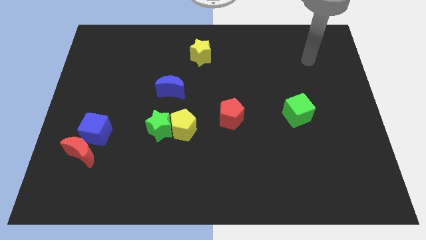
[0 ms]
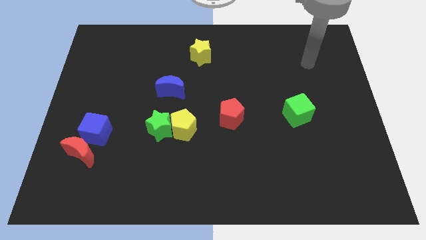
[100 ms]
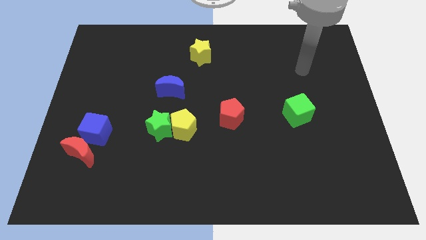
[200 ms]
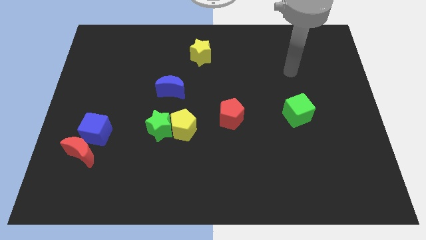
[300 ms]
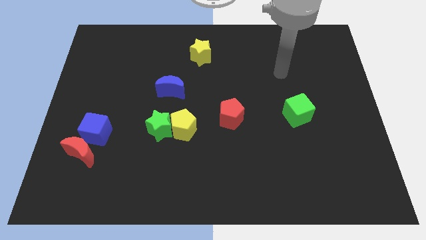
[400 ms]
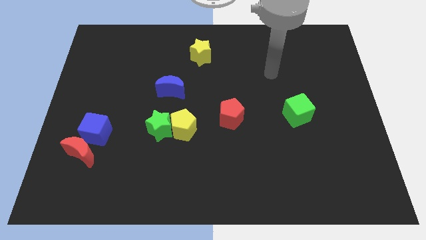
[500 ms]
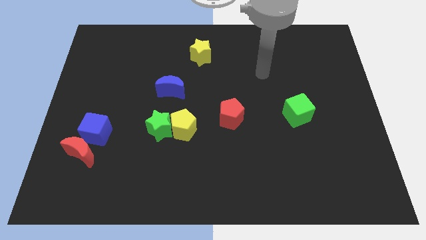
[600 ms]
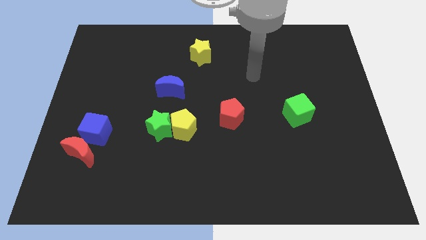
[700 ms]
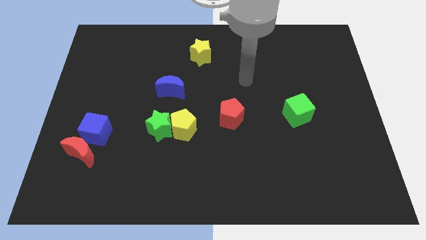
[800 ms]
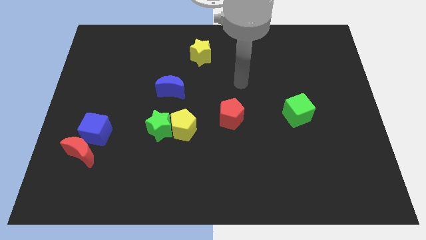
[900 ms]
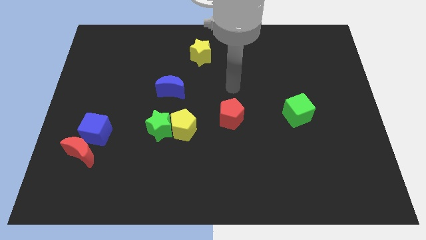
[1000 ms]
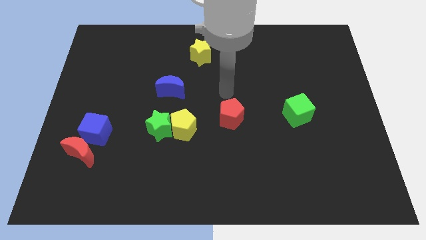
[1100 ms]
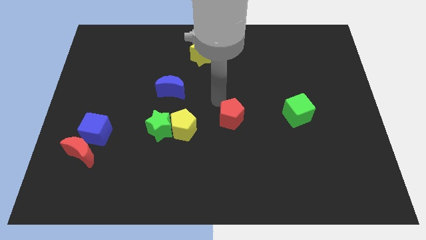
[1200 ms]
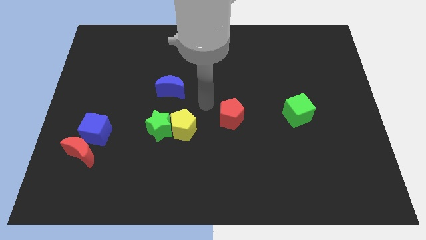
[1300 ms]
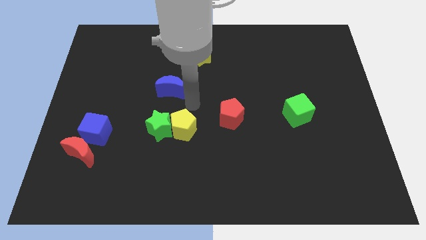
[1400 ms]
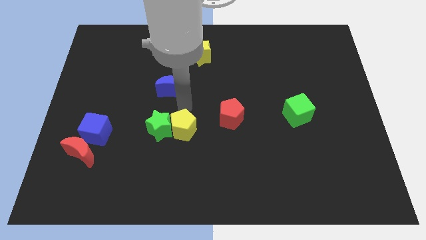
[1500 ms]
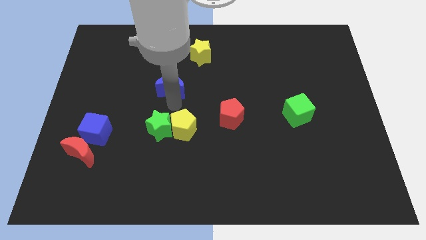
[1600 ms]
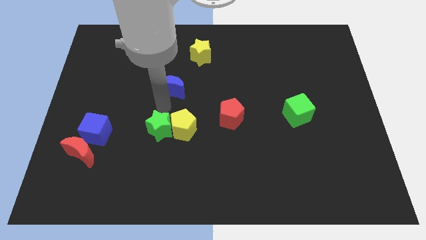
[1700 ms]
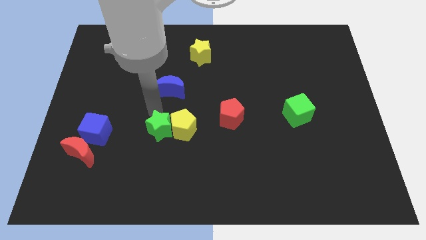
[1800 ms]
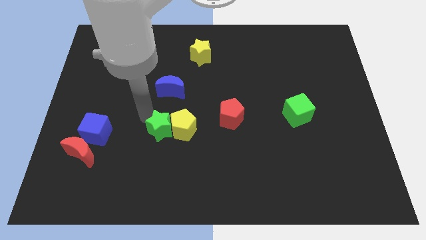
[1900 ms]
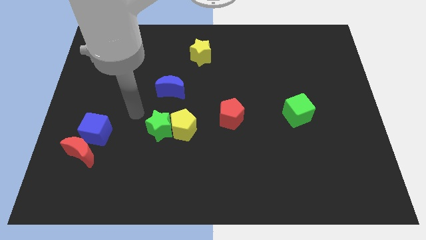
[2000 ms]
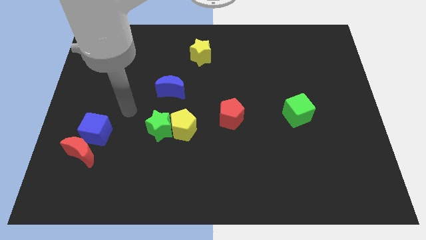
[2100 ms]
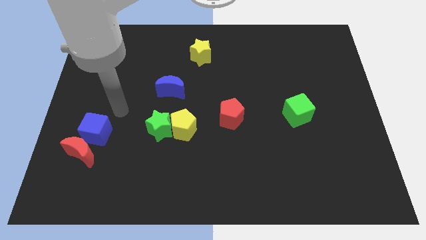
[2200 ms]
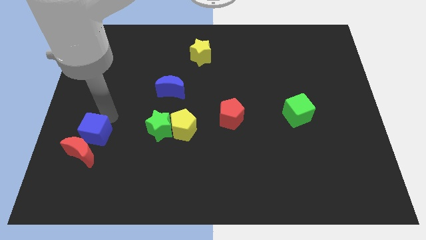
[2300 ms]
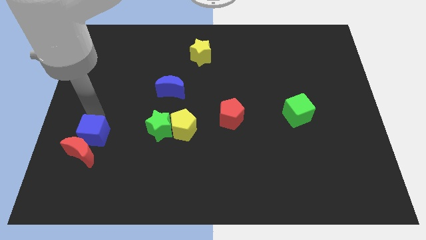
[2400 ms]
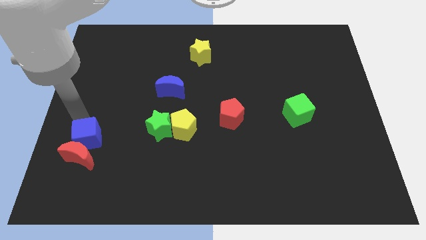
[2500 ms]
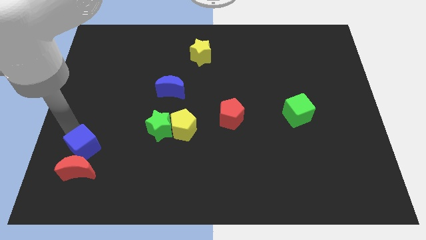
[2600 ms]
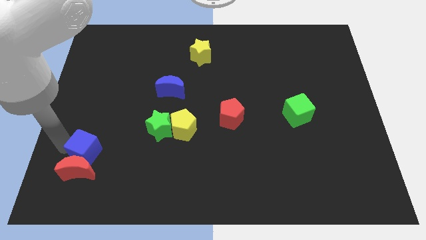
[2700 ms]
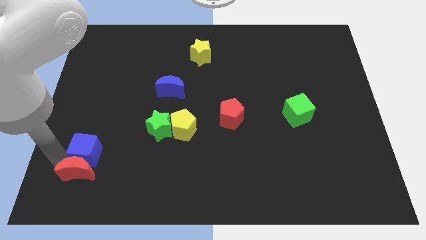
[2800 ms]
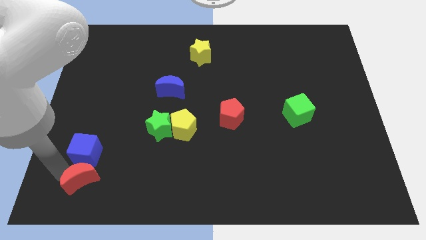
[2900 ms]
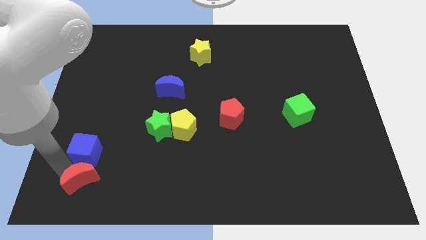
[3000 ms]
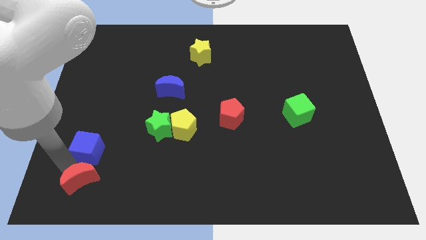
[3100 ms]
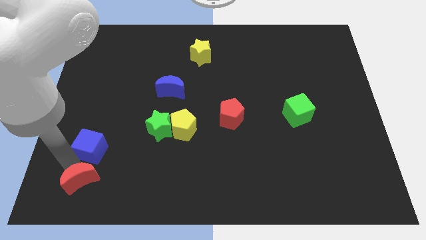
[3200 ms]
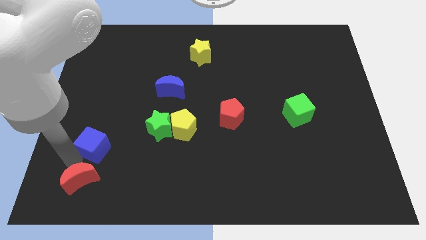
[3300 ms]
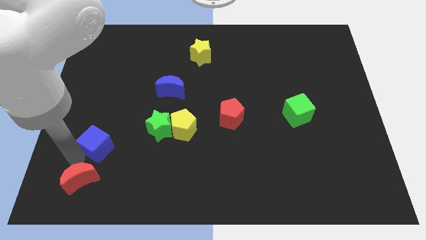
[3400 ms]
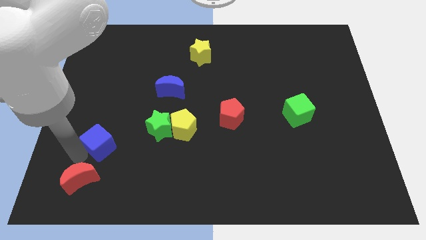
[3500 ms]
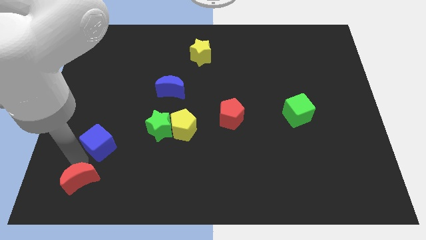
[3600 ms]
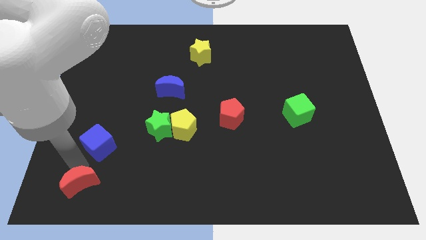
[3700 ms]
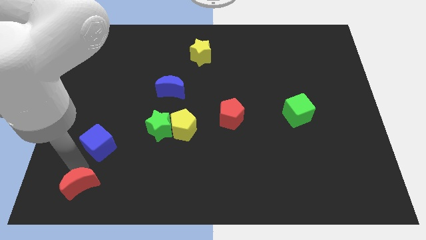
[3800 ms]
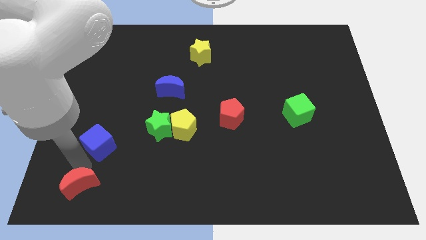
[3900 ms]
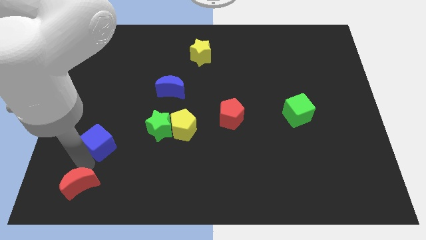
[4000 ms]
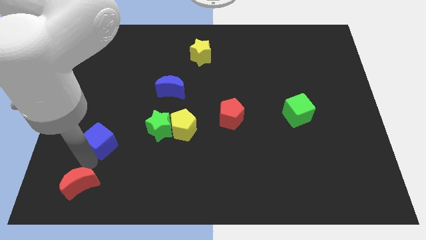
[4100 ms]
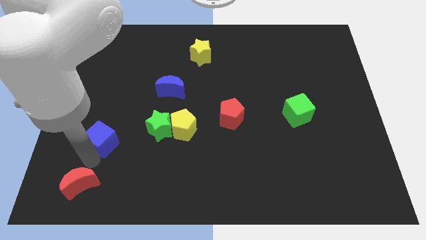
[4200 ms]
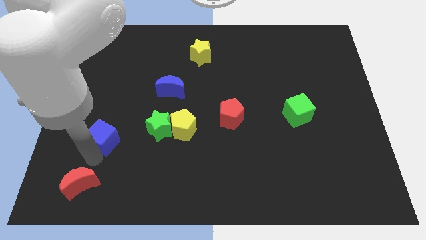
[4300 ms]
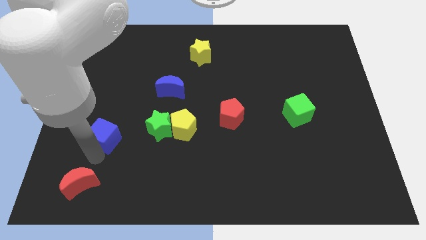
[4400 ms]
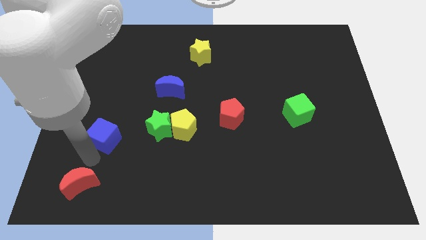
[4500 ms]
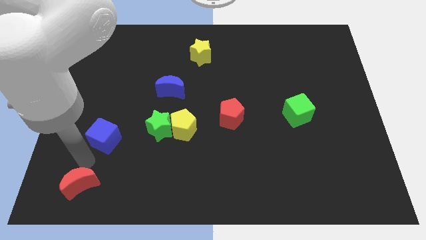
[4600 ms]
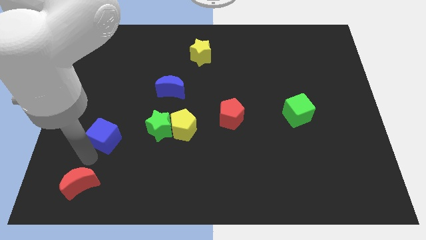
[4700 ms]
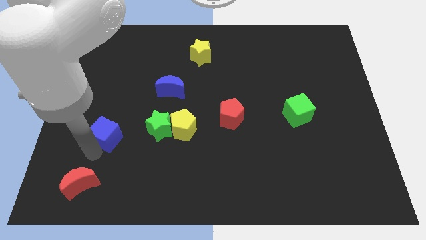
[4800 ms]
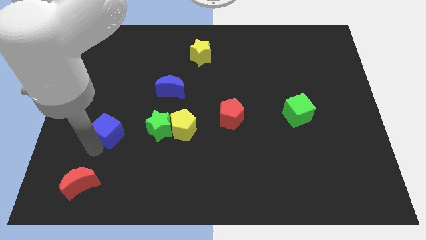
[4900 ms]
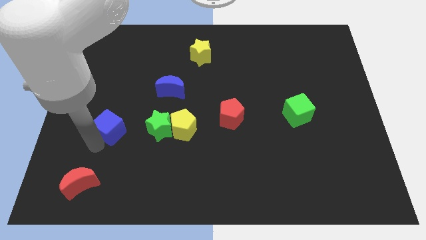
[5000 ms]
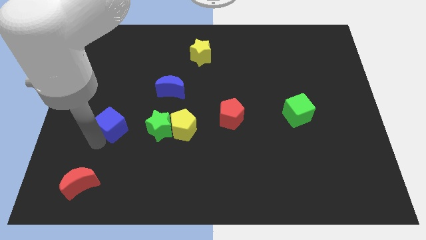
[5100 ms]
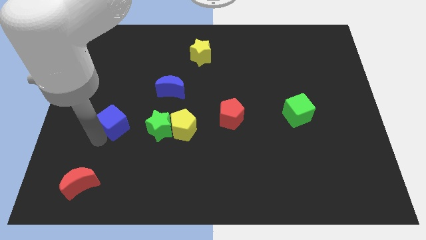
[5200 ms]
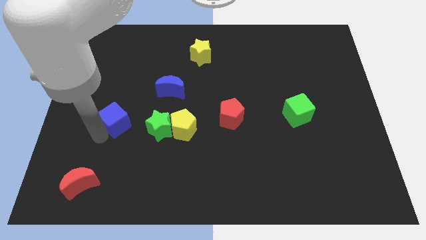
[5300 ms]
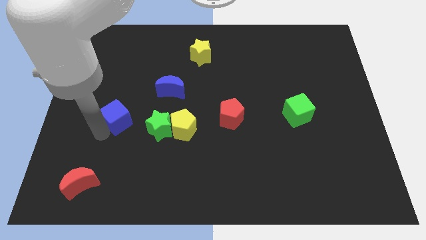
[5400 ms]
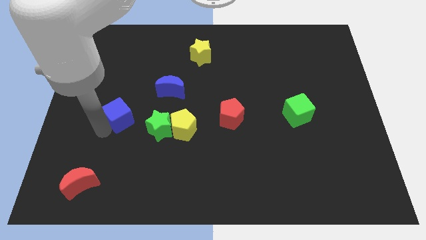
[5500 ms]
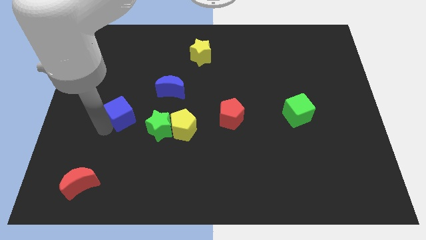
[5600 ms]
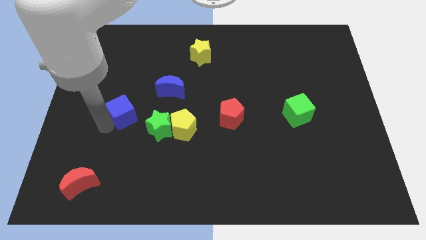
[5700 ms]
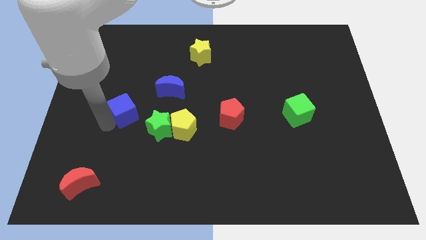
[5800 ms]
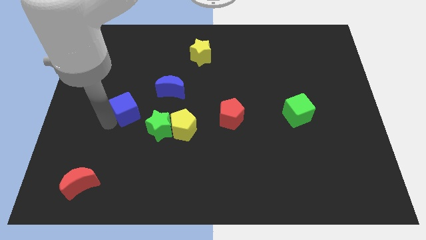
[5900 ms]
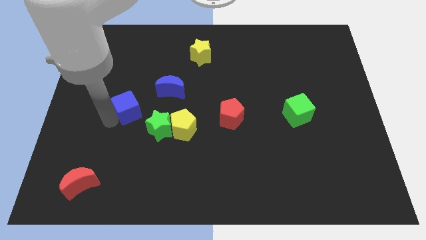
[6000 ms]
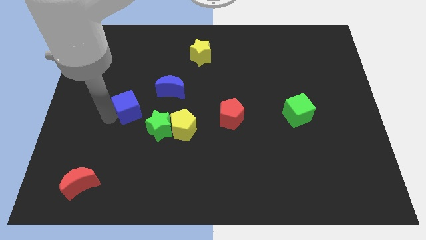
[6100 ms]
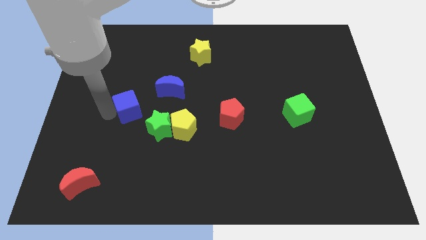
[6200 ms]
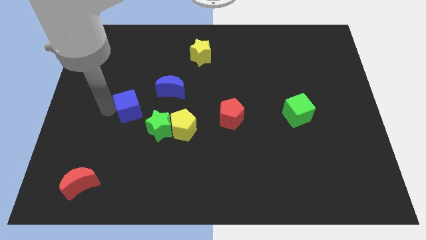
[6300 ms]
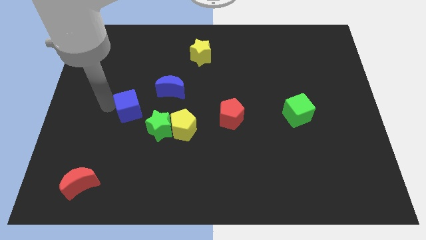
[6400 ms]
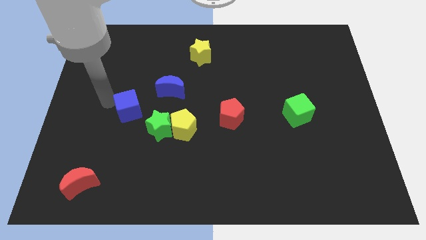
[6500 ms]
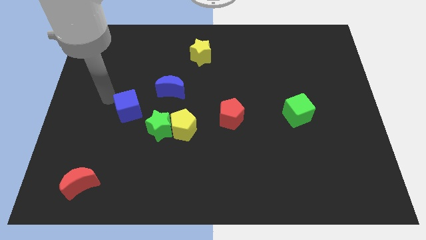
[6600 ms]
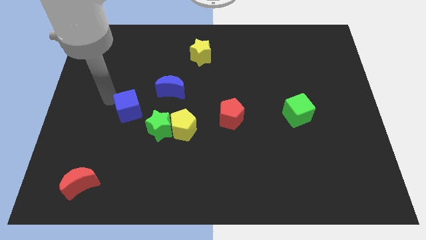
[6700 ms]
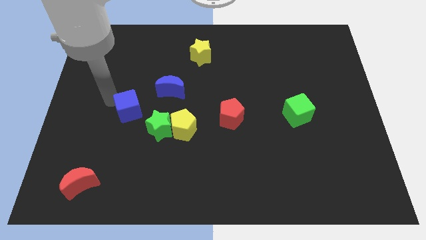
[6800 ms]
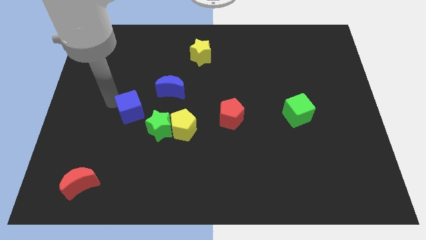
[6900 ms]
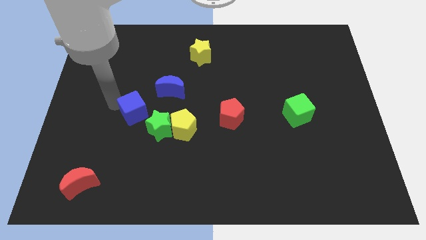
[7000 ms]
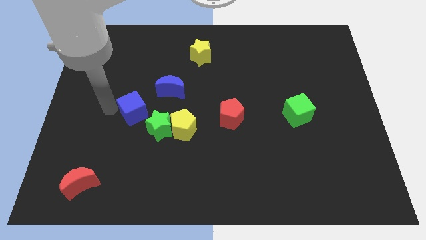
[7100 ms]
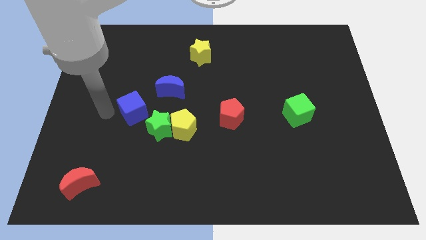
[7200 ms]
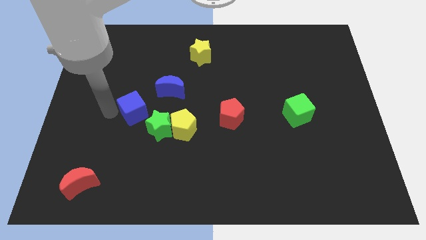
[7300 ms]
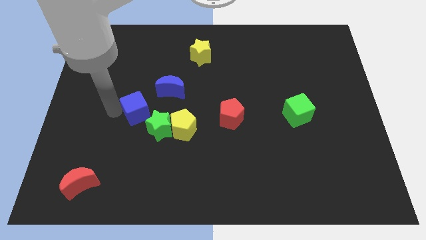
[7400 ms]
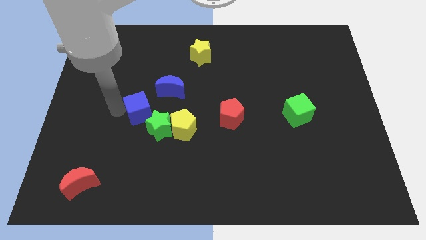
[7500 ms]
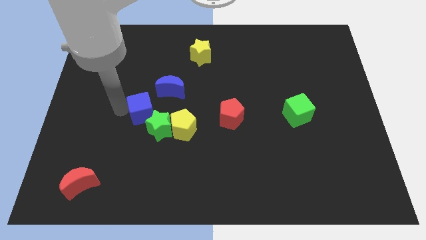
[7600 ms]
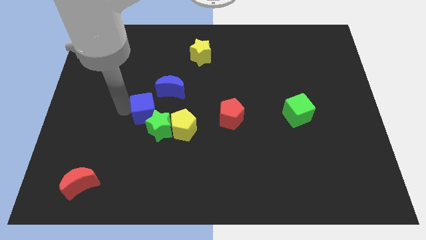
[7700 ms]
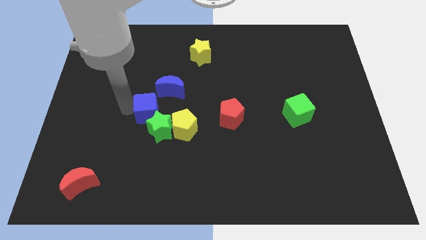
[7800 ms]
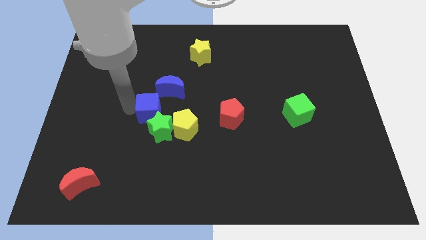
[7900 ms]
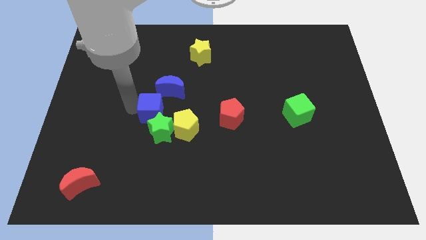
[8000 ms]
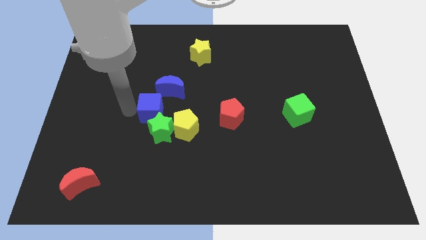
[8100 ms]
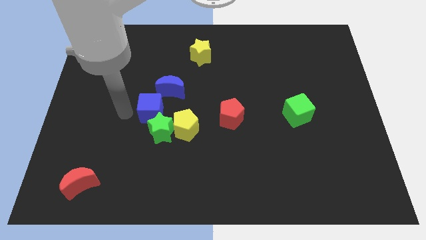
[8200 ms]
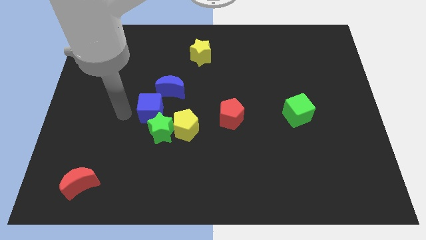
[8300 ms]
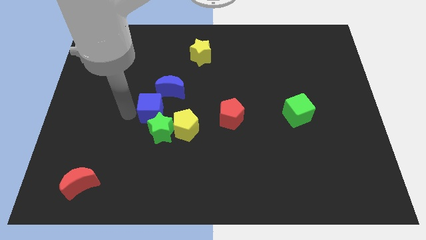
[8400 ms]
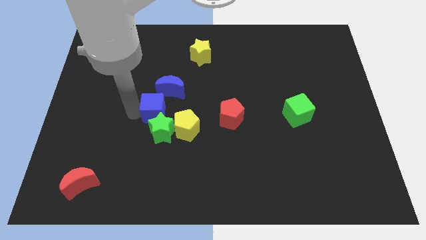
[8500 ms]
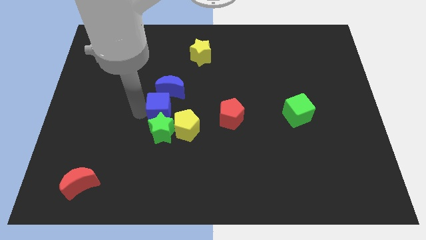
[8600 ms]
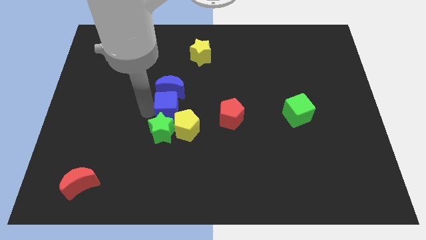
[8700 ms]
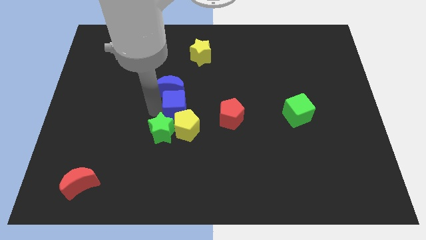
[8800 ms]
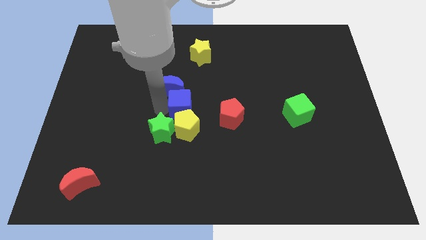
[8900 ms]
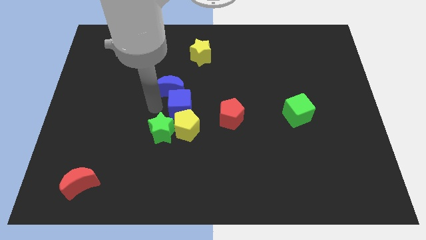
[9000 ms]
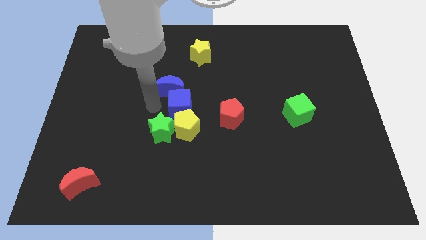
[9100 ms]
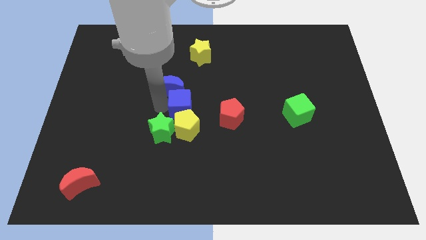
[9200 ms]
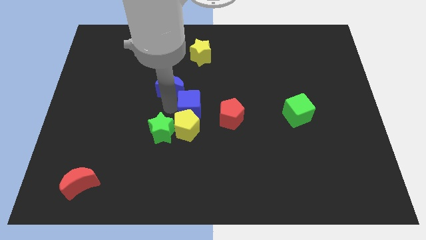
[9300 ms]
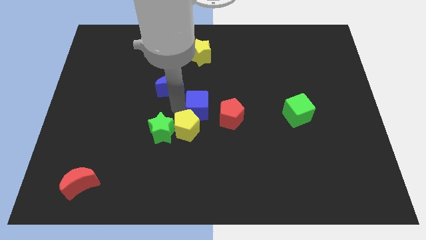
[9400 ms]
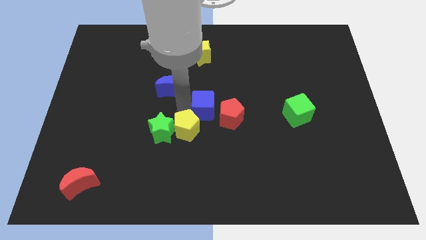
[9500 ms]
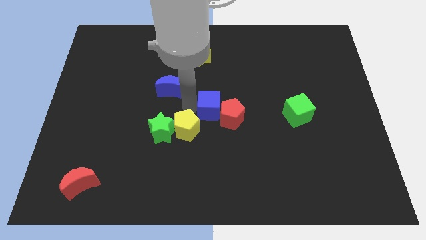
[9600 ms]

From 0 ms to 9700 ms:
slide the blue cube next to the red pentagon
